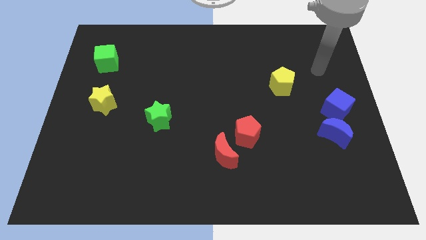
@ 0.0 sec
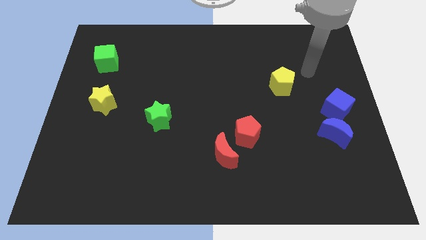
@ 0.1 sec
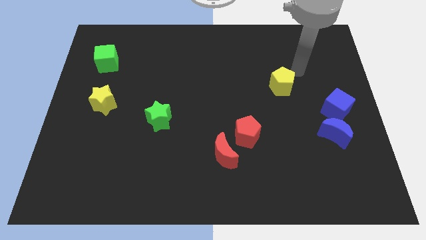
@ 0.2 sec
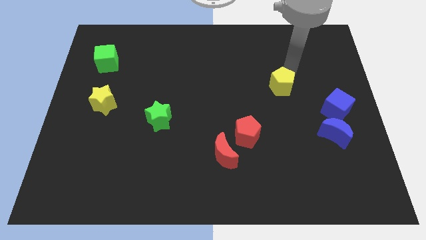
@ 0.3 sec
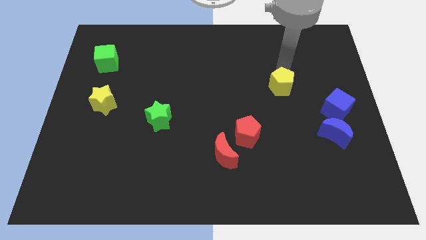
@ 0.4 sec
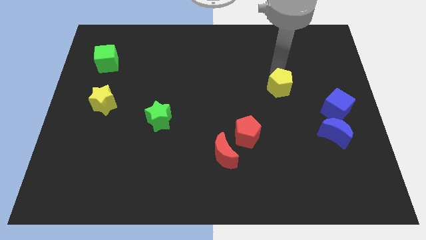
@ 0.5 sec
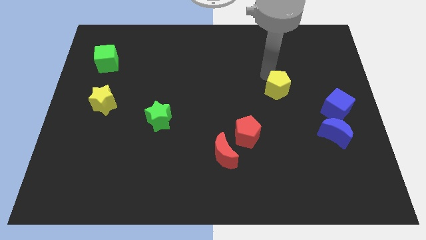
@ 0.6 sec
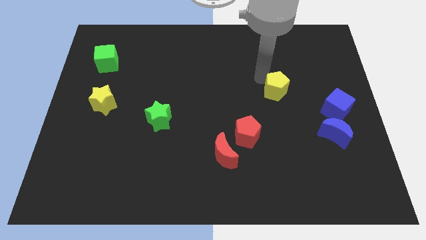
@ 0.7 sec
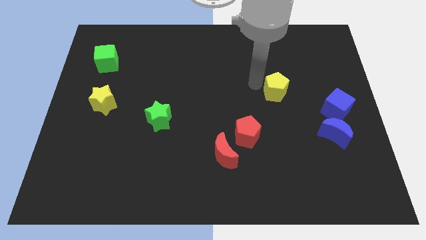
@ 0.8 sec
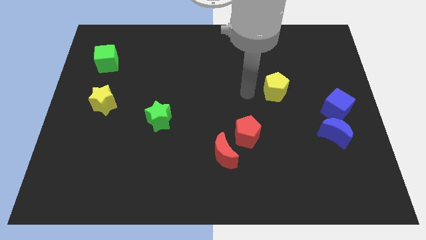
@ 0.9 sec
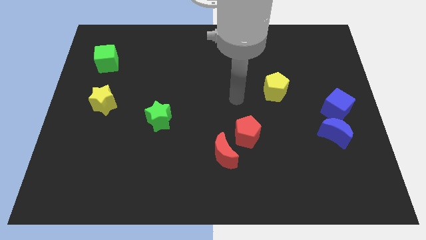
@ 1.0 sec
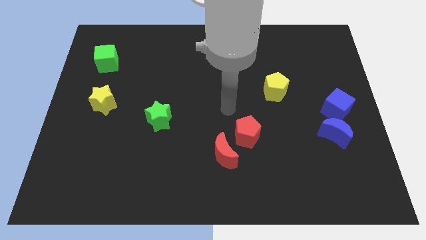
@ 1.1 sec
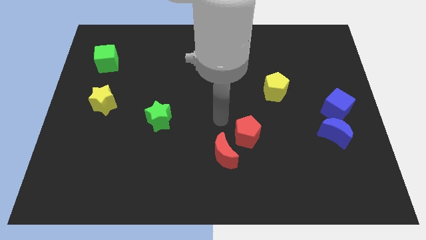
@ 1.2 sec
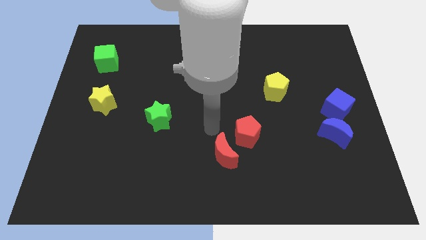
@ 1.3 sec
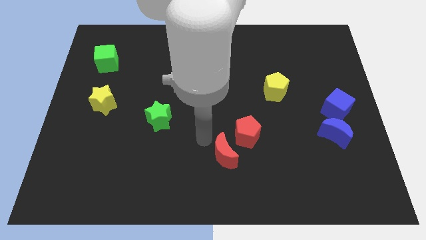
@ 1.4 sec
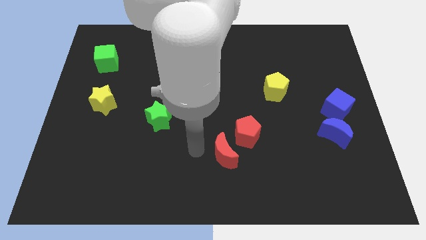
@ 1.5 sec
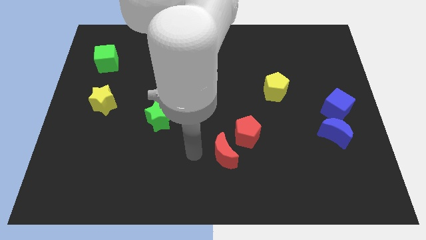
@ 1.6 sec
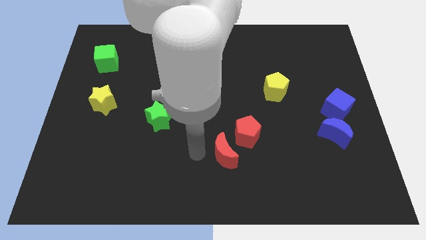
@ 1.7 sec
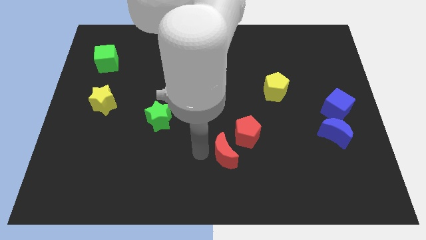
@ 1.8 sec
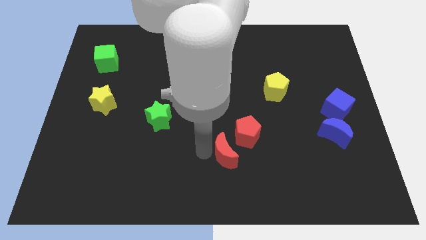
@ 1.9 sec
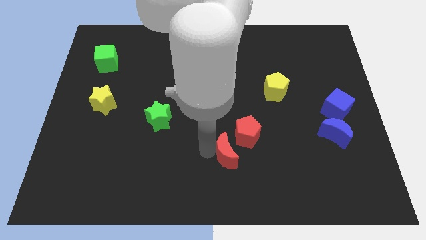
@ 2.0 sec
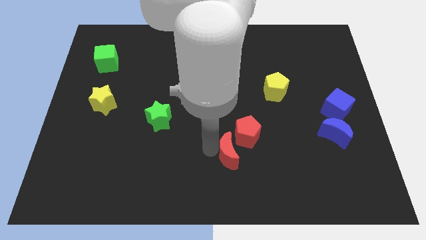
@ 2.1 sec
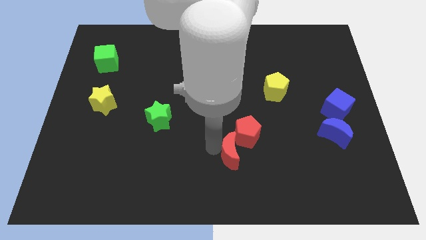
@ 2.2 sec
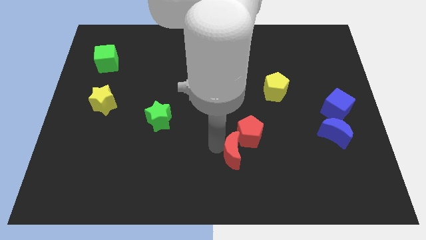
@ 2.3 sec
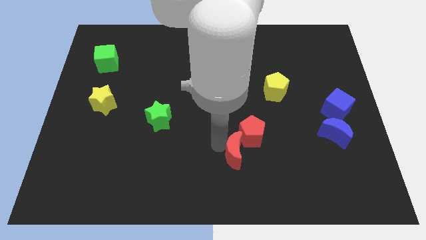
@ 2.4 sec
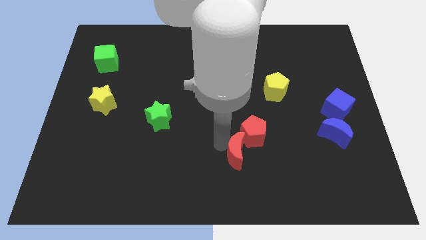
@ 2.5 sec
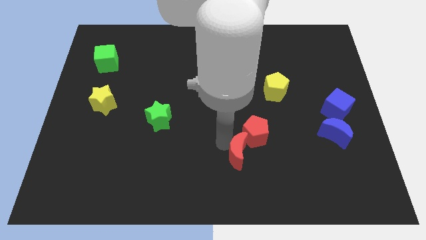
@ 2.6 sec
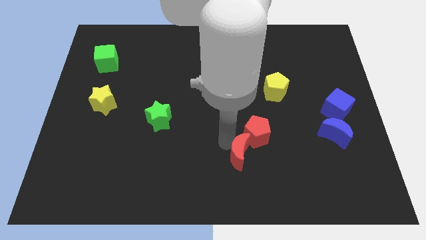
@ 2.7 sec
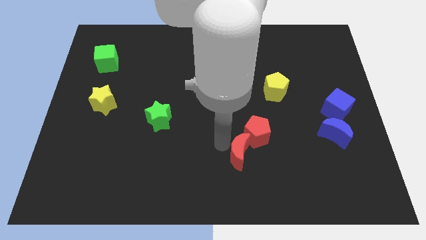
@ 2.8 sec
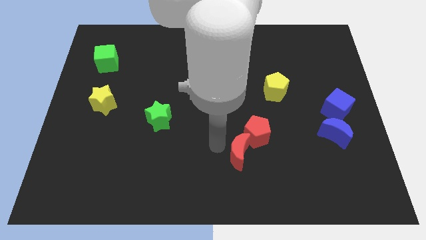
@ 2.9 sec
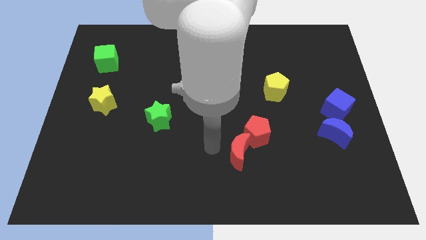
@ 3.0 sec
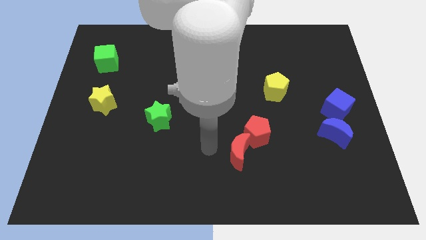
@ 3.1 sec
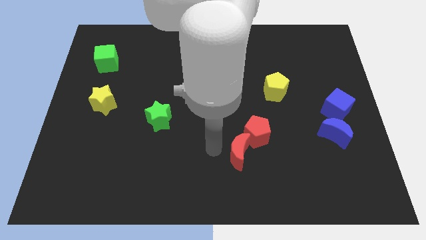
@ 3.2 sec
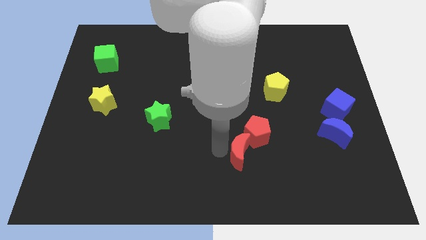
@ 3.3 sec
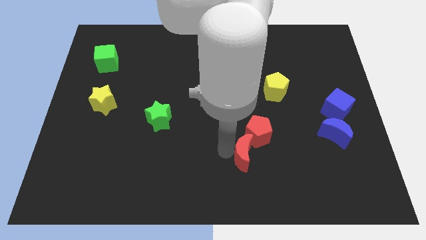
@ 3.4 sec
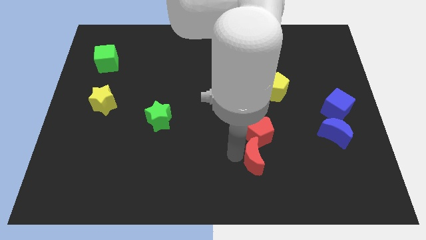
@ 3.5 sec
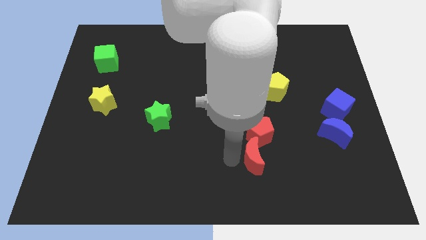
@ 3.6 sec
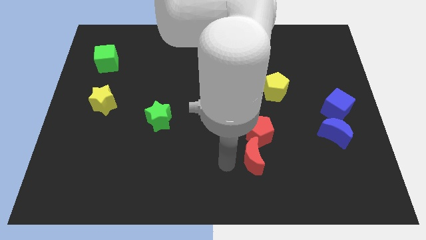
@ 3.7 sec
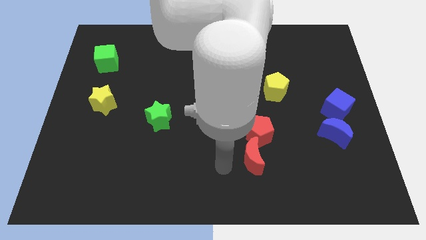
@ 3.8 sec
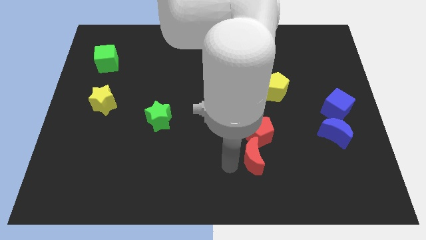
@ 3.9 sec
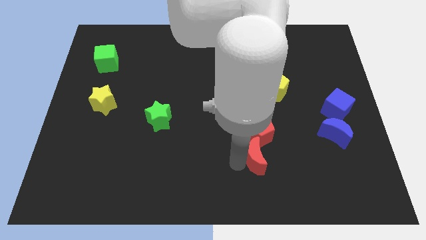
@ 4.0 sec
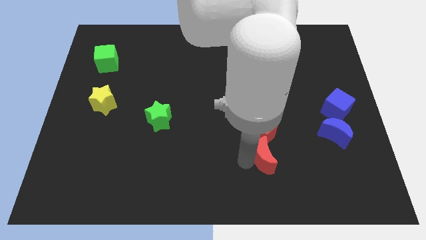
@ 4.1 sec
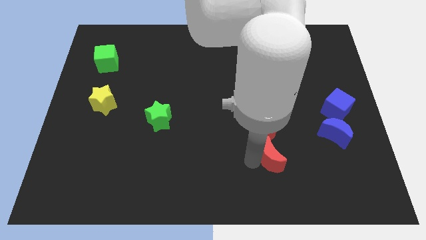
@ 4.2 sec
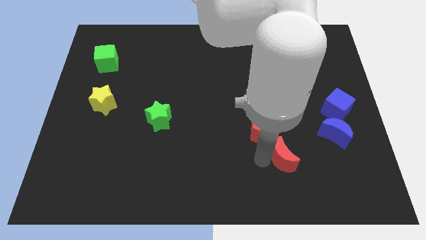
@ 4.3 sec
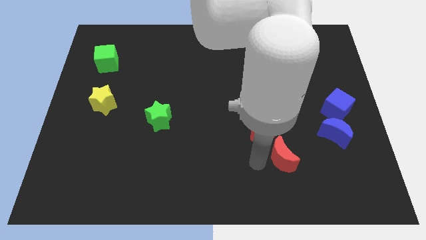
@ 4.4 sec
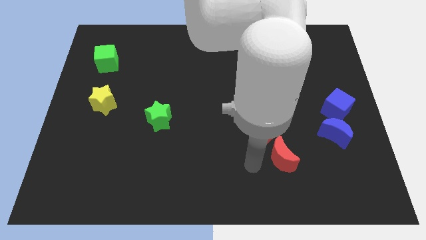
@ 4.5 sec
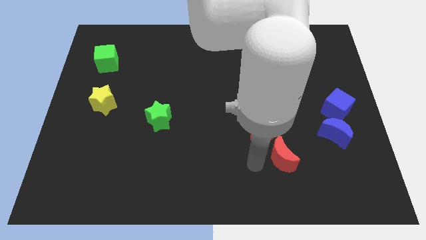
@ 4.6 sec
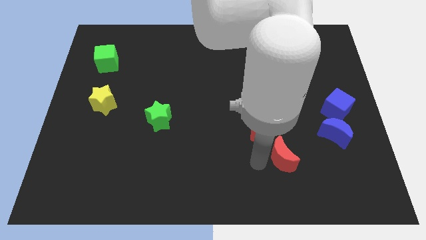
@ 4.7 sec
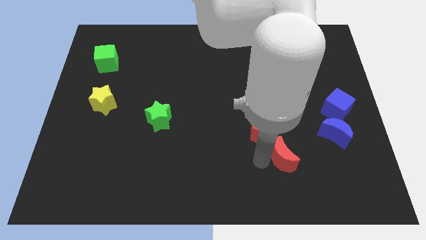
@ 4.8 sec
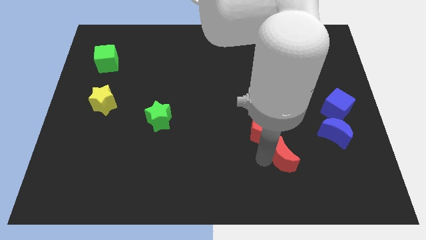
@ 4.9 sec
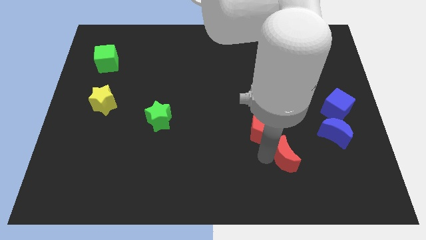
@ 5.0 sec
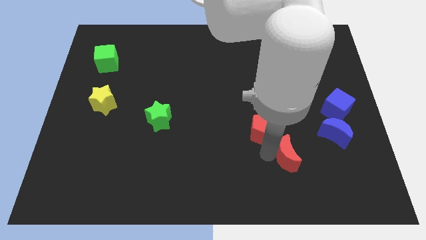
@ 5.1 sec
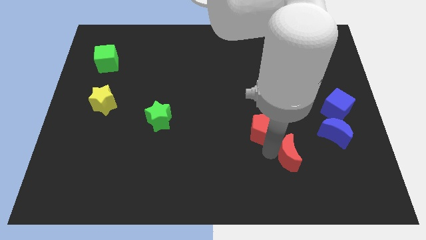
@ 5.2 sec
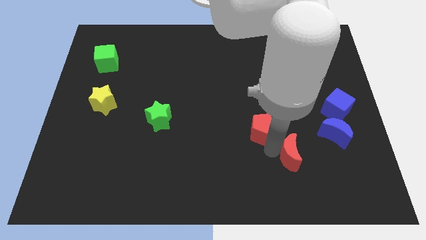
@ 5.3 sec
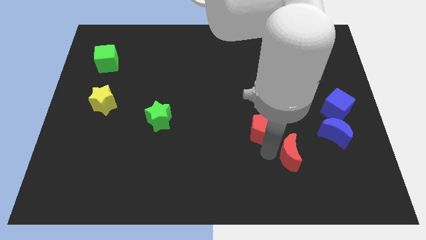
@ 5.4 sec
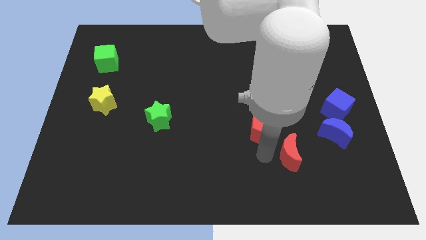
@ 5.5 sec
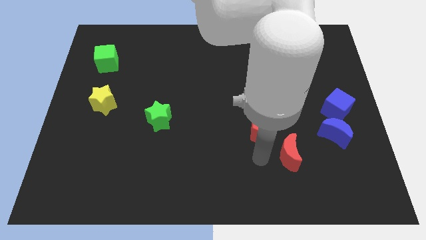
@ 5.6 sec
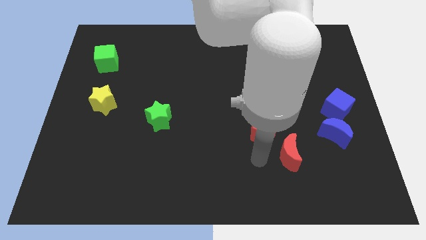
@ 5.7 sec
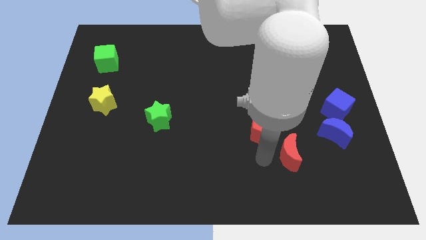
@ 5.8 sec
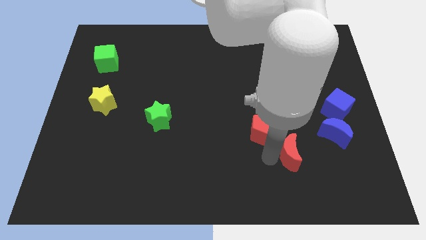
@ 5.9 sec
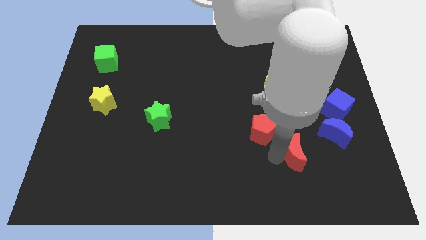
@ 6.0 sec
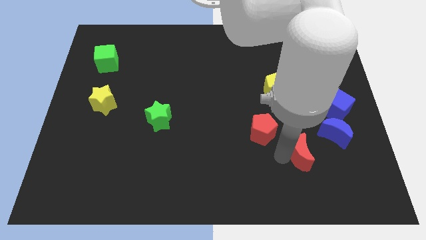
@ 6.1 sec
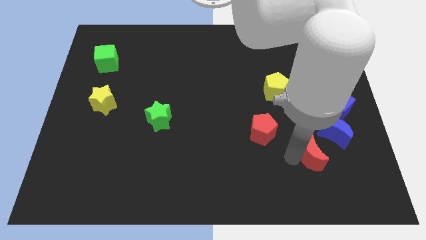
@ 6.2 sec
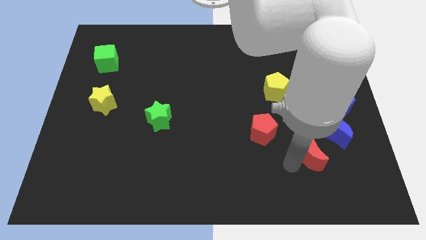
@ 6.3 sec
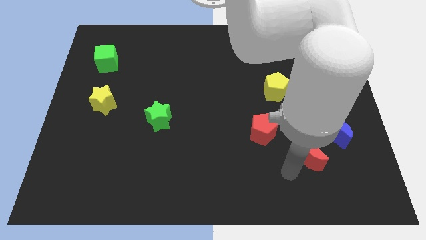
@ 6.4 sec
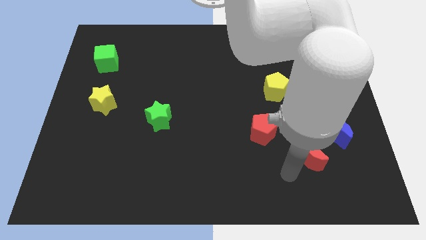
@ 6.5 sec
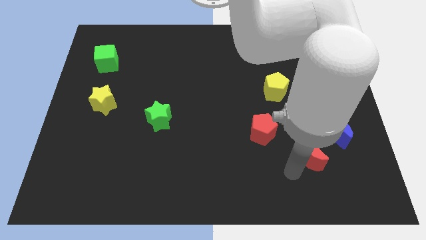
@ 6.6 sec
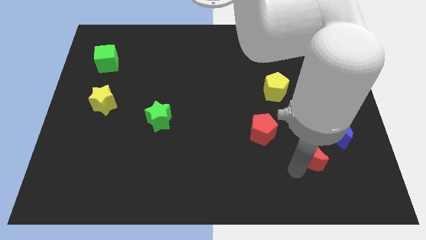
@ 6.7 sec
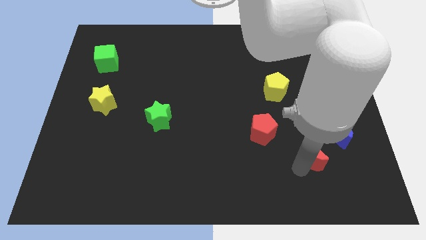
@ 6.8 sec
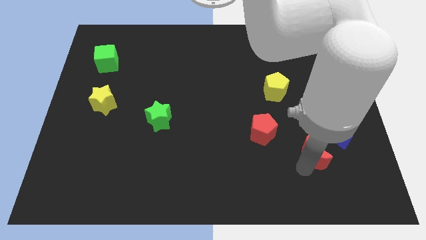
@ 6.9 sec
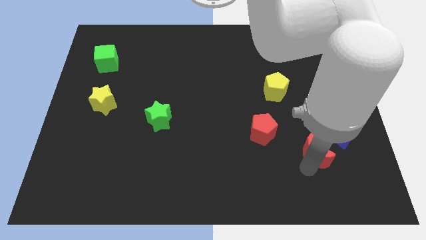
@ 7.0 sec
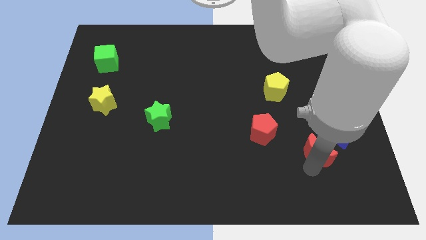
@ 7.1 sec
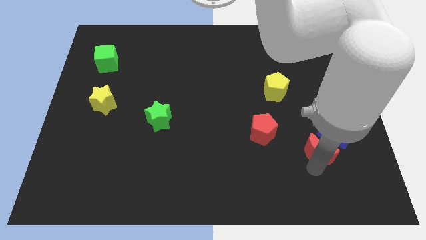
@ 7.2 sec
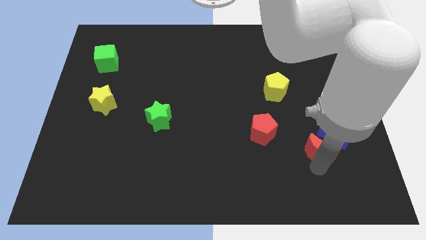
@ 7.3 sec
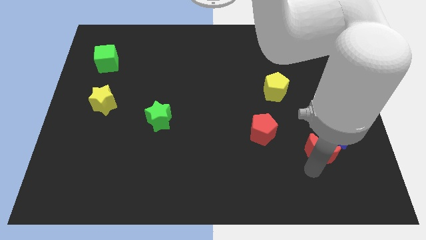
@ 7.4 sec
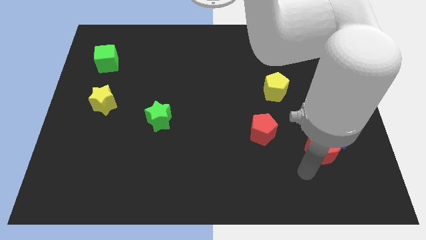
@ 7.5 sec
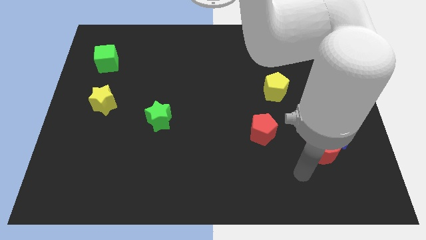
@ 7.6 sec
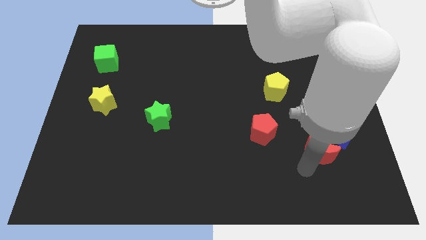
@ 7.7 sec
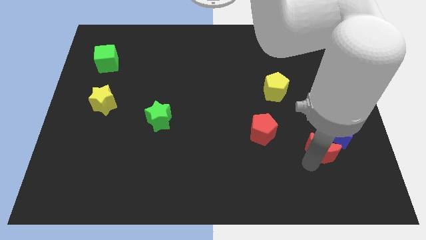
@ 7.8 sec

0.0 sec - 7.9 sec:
slide the red moon towards the blue moon
